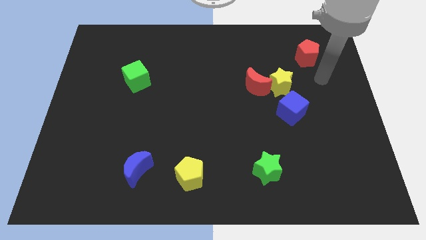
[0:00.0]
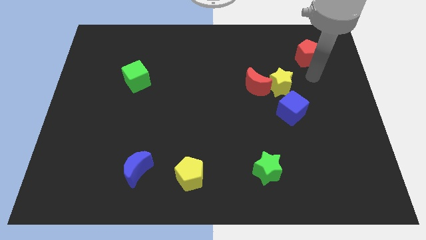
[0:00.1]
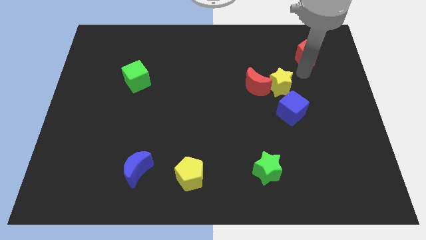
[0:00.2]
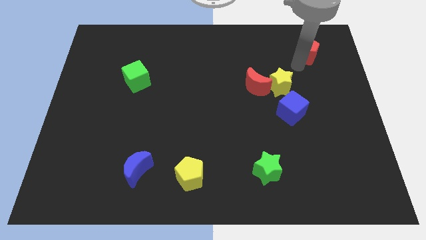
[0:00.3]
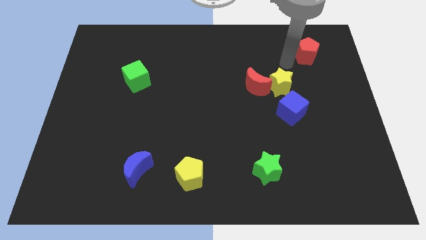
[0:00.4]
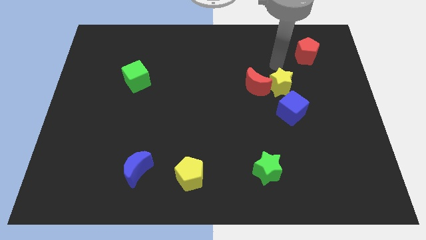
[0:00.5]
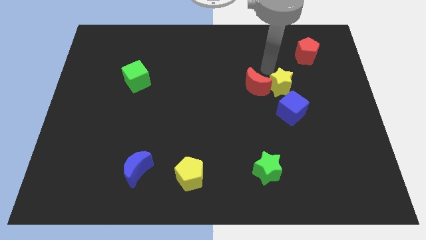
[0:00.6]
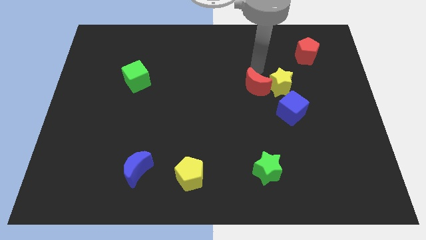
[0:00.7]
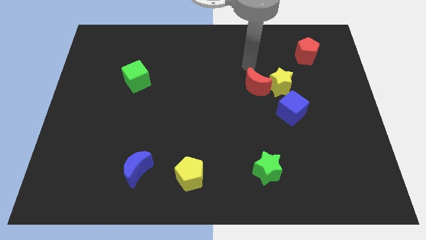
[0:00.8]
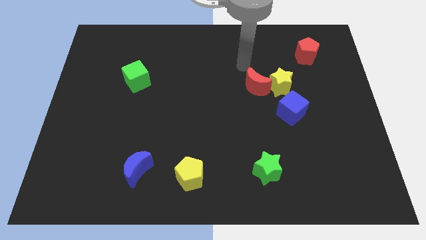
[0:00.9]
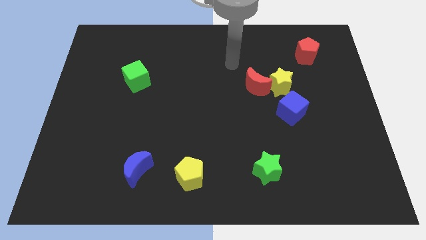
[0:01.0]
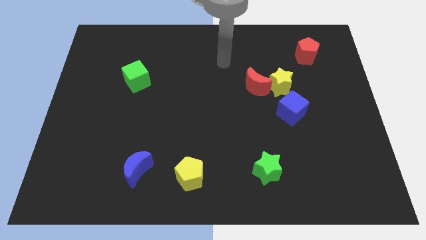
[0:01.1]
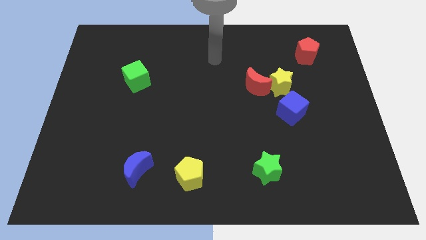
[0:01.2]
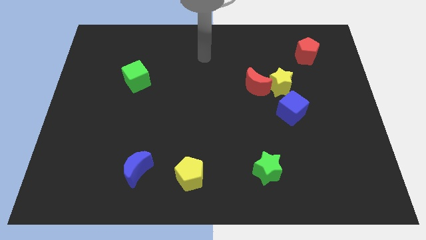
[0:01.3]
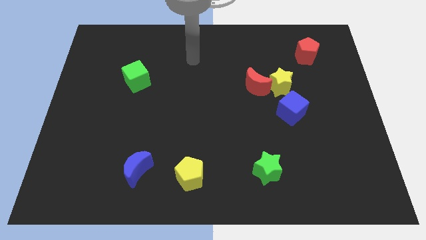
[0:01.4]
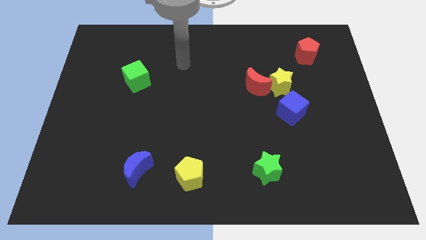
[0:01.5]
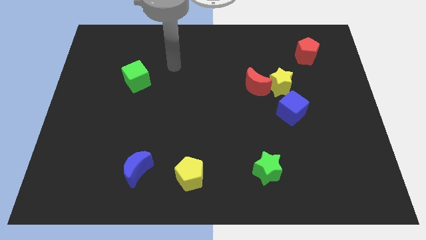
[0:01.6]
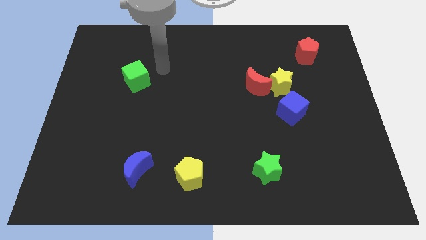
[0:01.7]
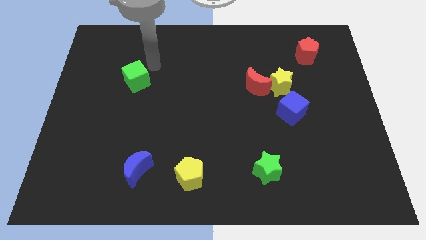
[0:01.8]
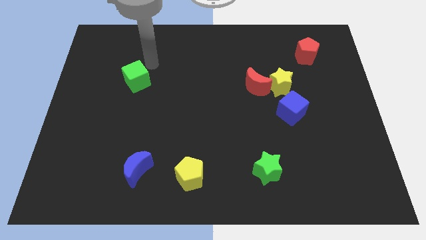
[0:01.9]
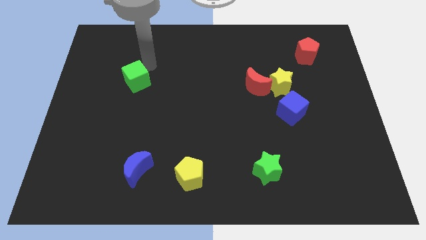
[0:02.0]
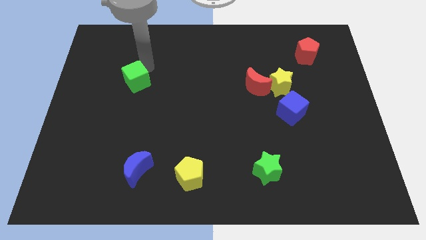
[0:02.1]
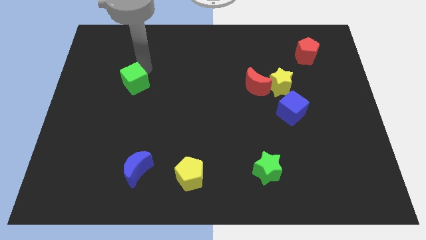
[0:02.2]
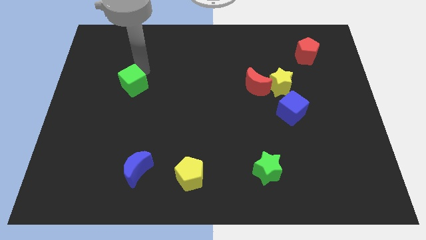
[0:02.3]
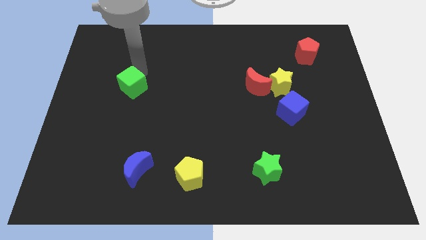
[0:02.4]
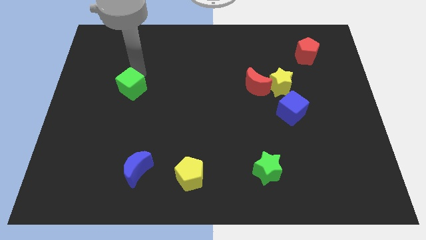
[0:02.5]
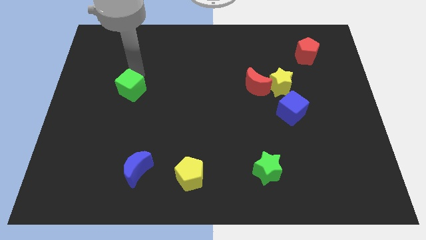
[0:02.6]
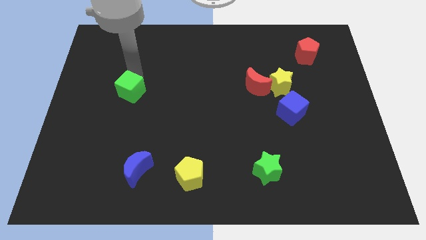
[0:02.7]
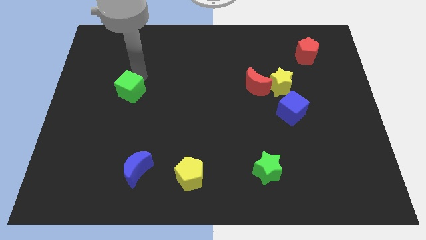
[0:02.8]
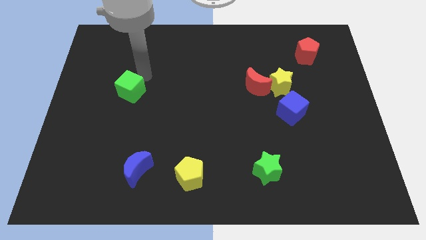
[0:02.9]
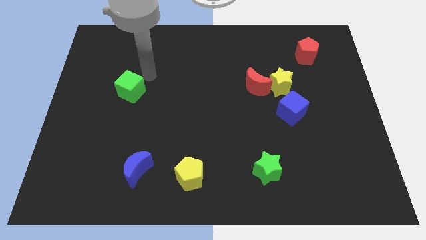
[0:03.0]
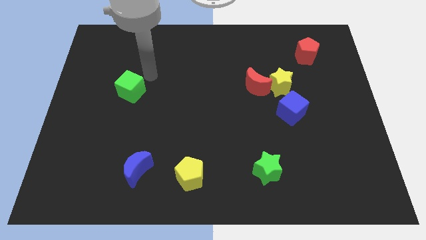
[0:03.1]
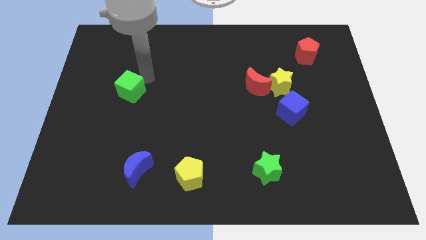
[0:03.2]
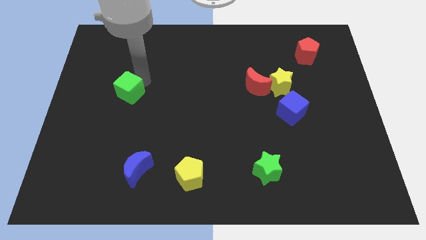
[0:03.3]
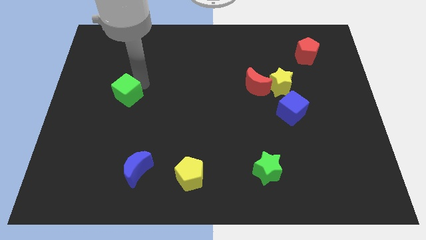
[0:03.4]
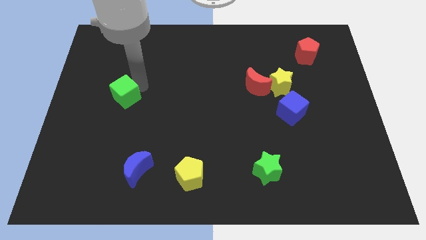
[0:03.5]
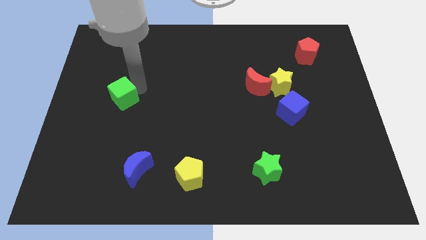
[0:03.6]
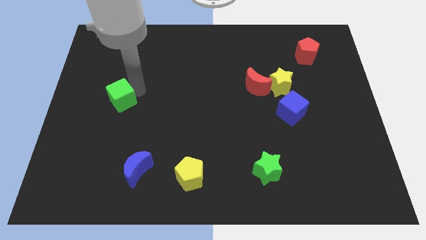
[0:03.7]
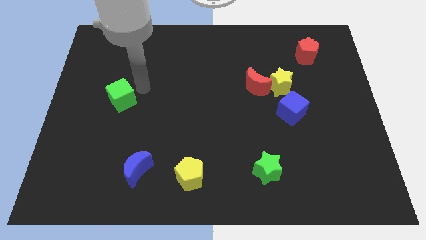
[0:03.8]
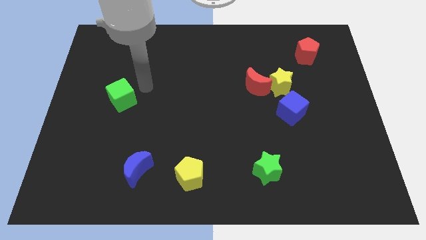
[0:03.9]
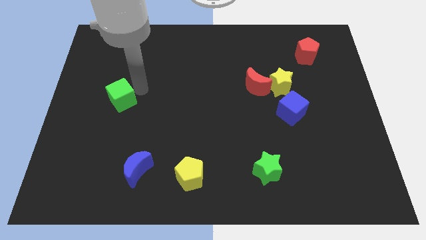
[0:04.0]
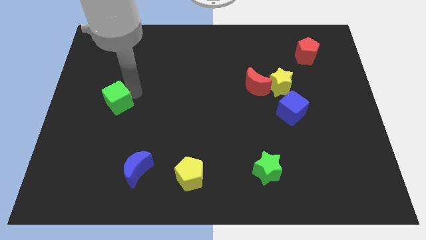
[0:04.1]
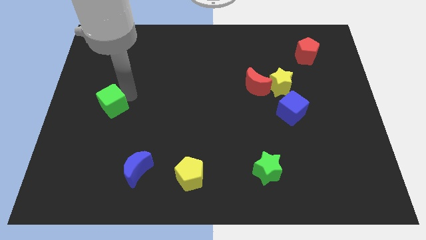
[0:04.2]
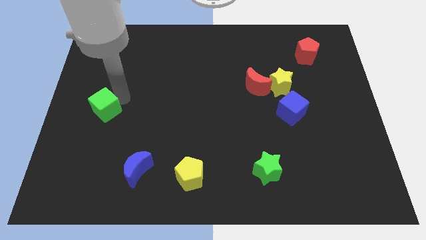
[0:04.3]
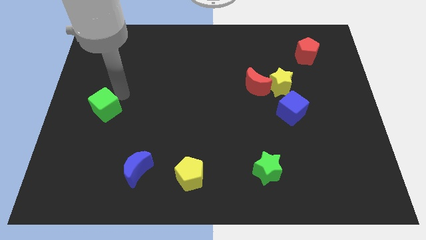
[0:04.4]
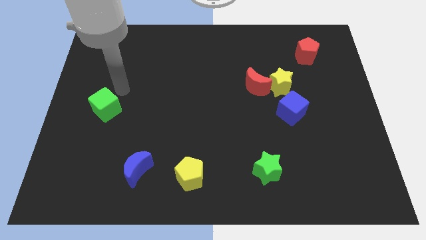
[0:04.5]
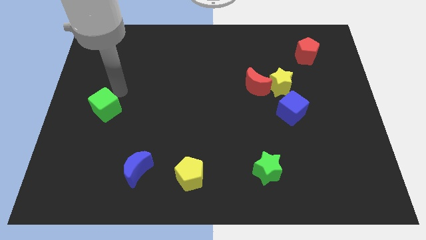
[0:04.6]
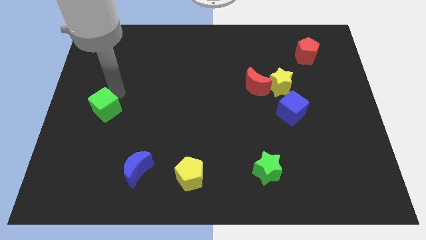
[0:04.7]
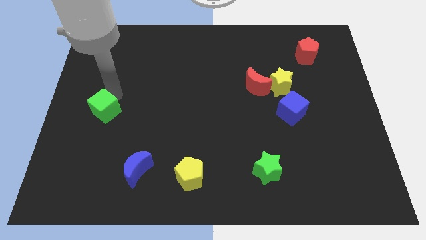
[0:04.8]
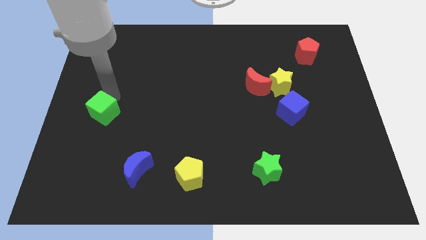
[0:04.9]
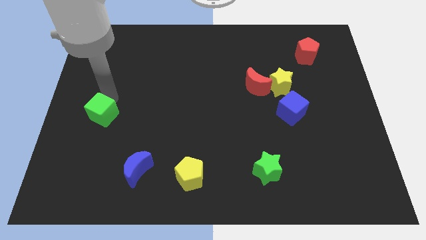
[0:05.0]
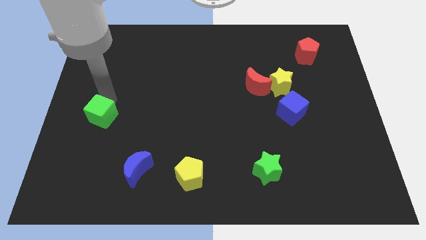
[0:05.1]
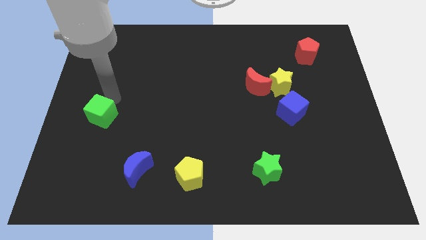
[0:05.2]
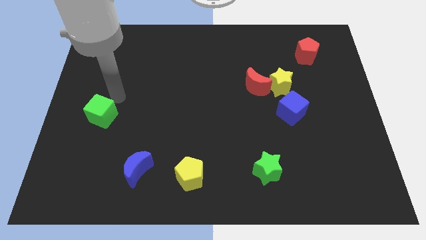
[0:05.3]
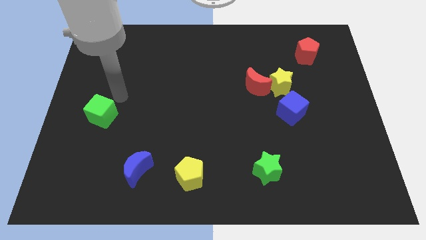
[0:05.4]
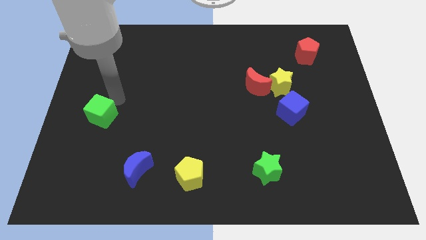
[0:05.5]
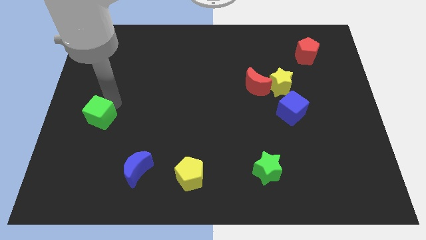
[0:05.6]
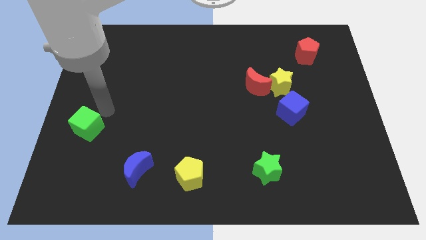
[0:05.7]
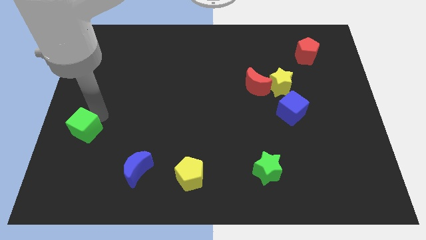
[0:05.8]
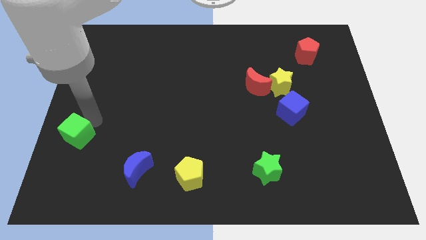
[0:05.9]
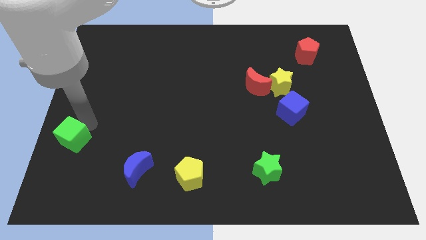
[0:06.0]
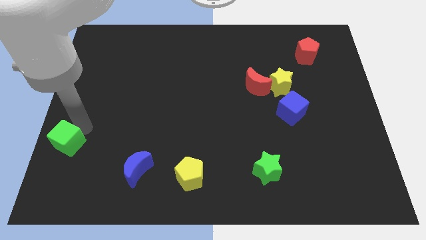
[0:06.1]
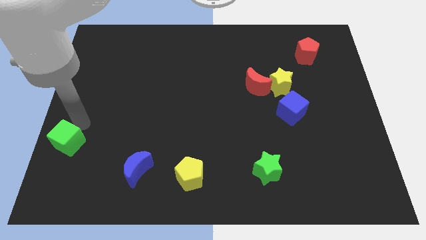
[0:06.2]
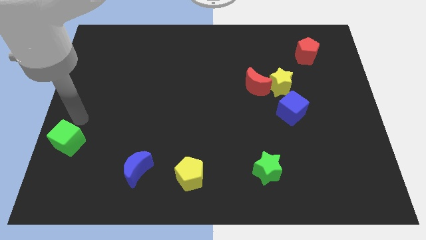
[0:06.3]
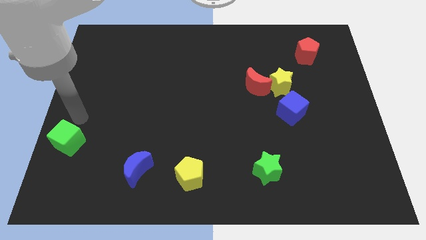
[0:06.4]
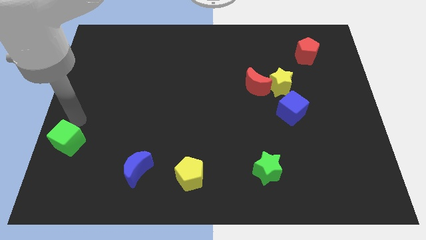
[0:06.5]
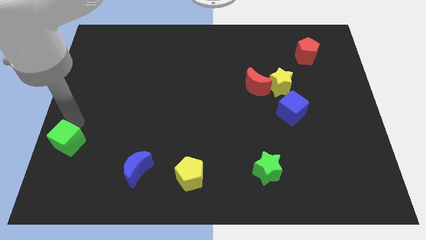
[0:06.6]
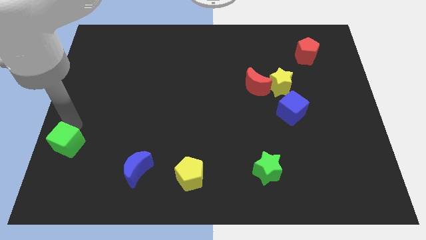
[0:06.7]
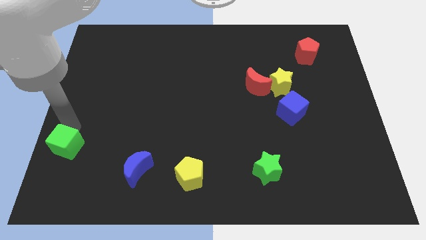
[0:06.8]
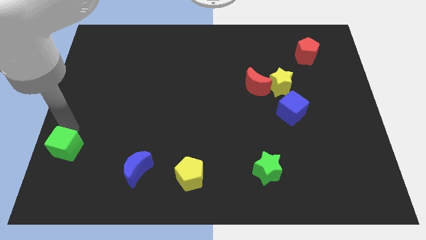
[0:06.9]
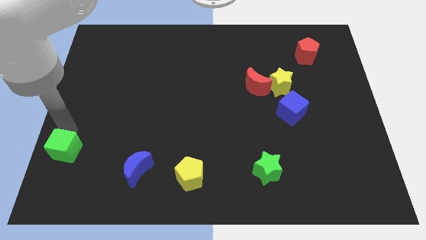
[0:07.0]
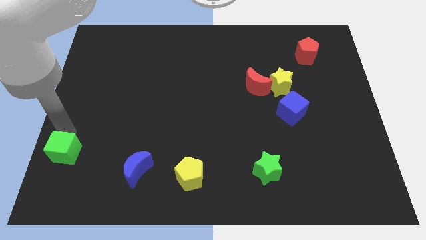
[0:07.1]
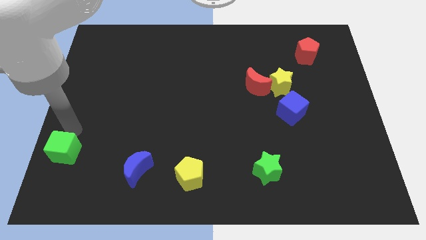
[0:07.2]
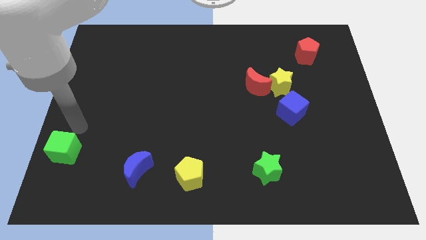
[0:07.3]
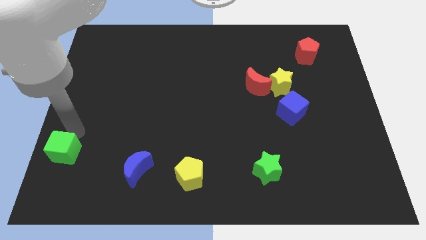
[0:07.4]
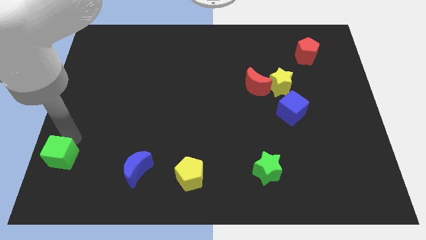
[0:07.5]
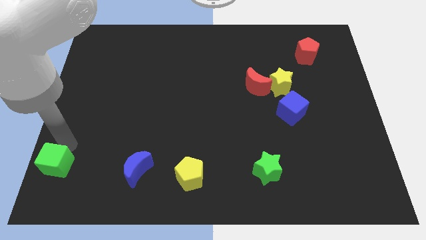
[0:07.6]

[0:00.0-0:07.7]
move the green cube to the bottom left corner
